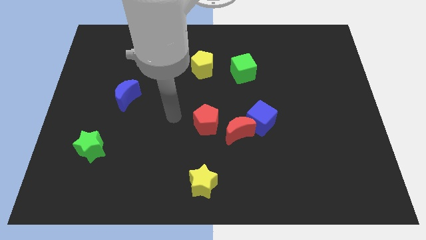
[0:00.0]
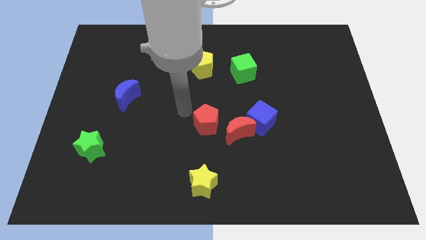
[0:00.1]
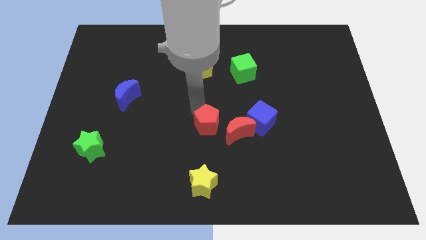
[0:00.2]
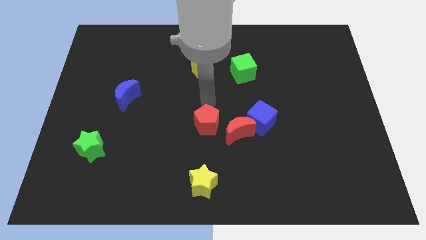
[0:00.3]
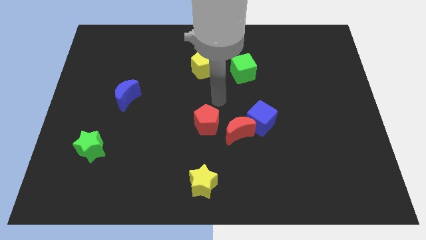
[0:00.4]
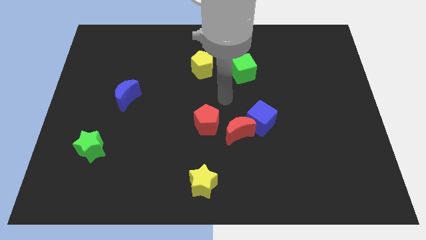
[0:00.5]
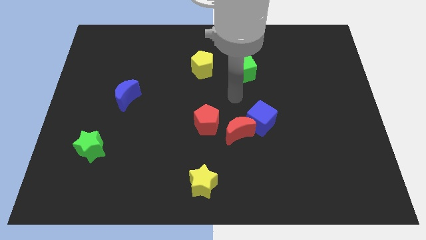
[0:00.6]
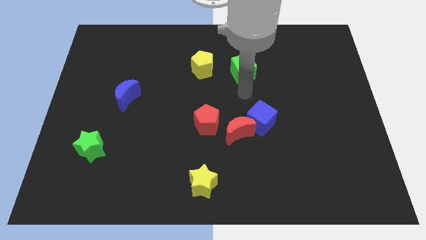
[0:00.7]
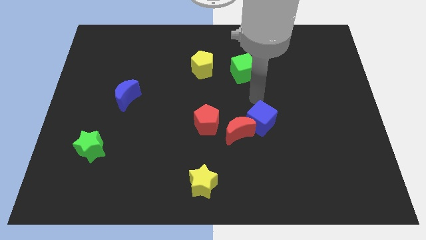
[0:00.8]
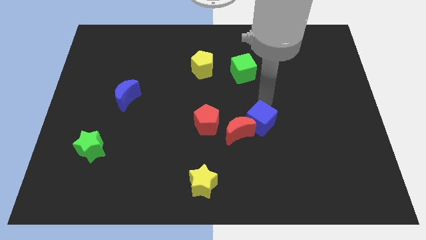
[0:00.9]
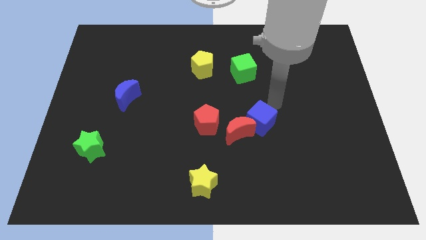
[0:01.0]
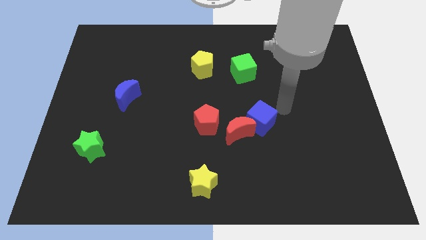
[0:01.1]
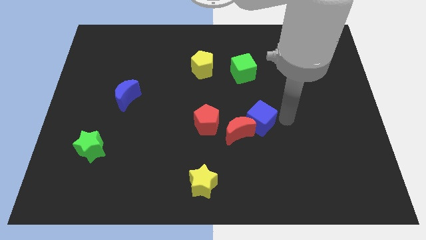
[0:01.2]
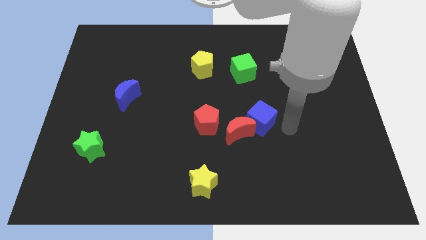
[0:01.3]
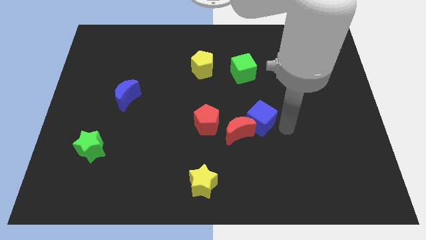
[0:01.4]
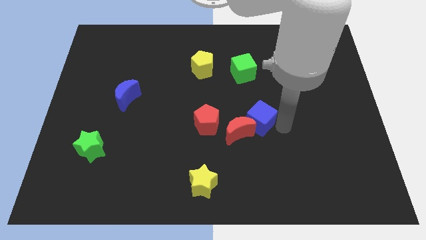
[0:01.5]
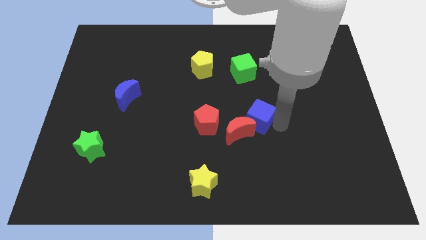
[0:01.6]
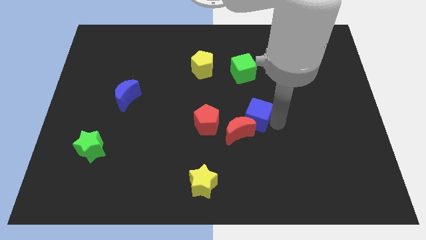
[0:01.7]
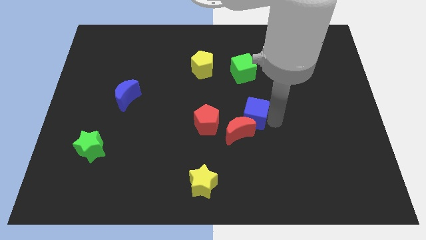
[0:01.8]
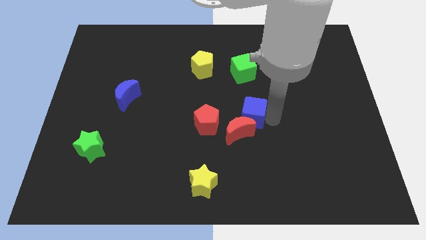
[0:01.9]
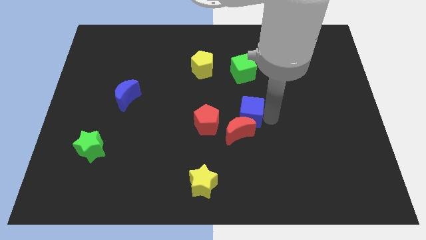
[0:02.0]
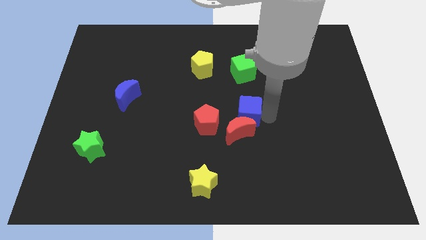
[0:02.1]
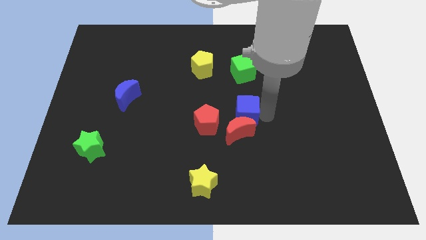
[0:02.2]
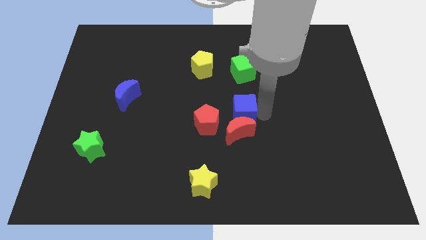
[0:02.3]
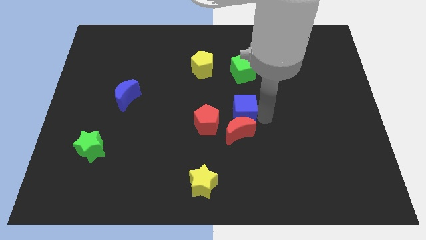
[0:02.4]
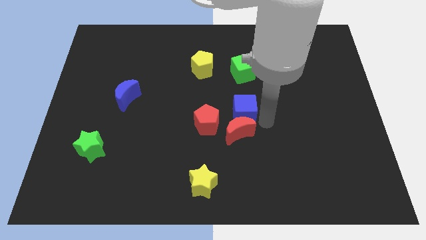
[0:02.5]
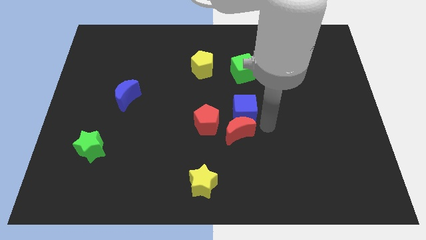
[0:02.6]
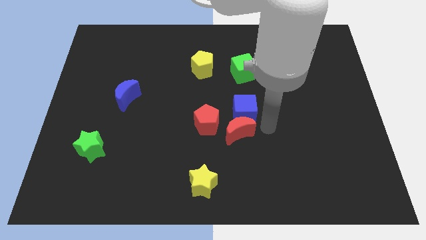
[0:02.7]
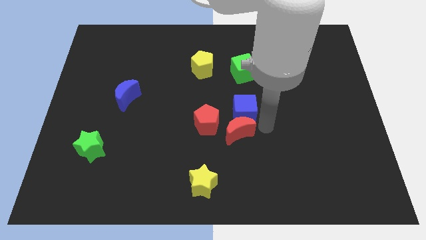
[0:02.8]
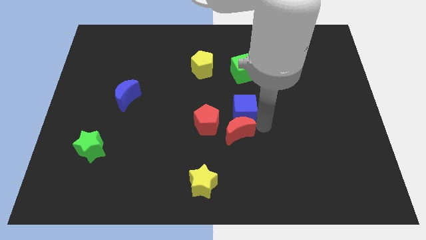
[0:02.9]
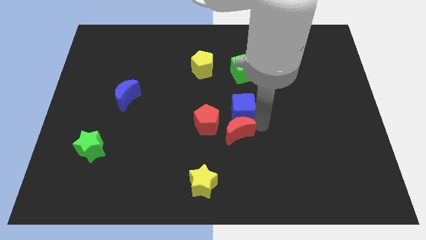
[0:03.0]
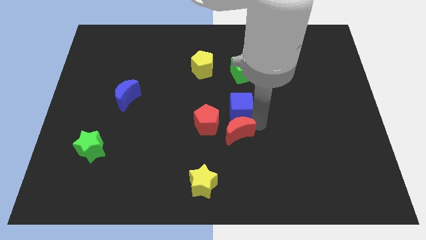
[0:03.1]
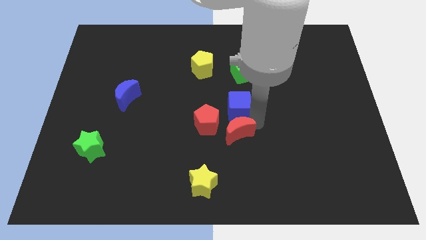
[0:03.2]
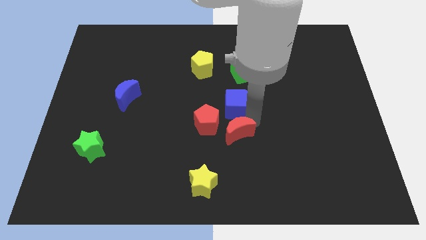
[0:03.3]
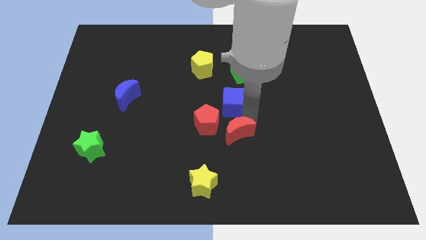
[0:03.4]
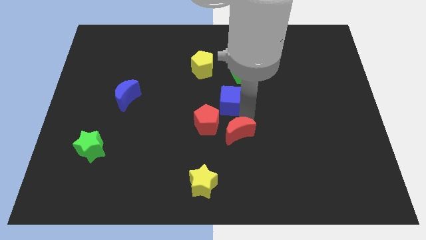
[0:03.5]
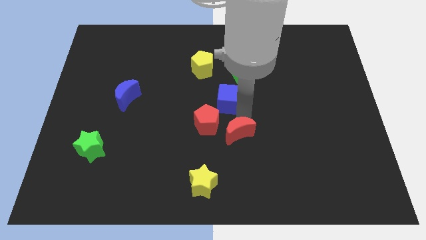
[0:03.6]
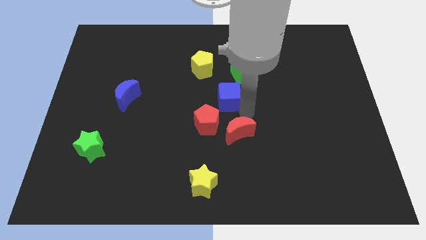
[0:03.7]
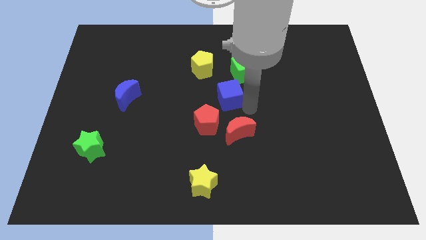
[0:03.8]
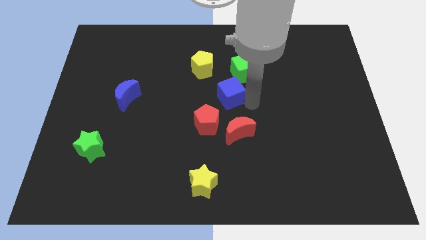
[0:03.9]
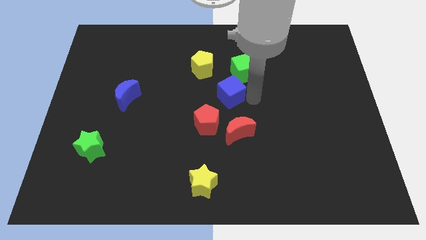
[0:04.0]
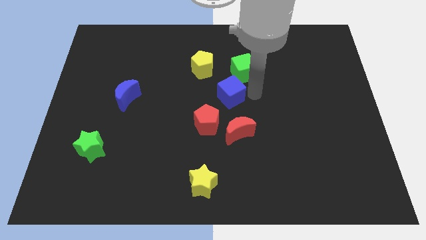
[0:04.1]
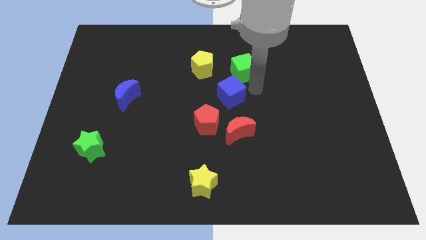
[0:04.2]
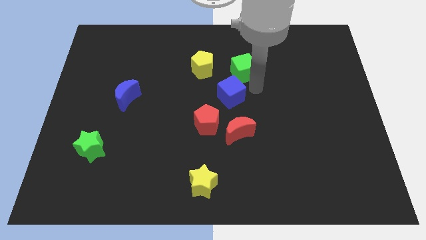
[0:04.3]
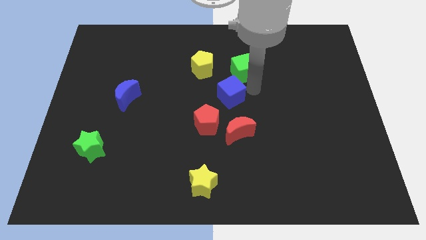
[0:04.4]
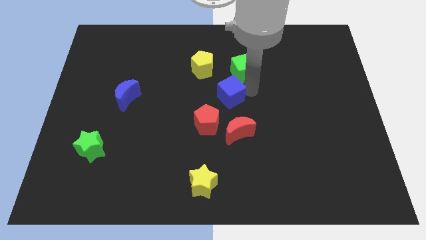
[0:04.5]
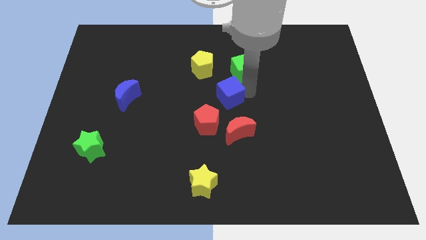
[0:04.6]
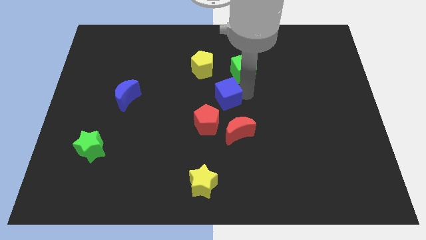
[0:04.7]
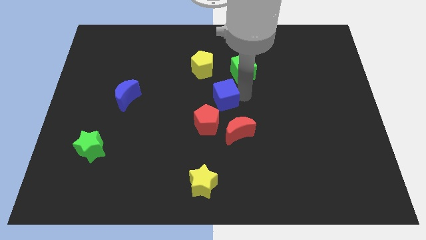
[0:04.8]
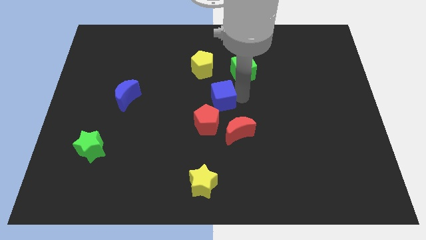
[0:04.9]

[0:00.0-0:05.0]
slightly slide the blue cube to the left

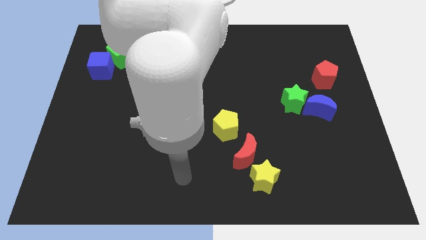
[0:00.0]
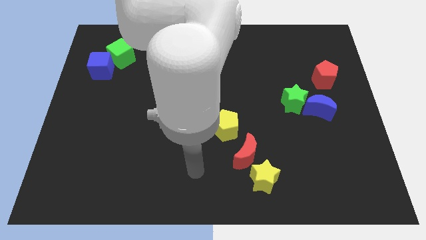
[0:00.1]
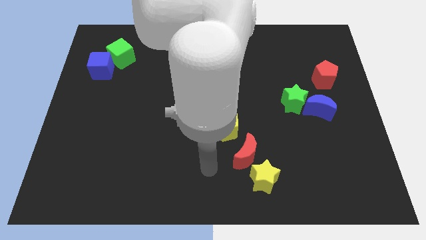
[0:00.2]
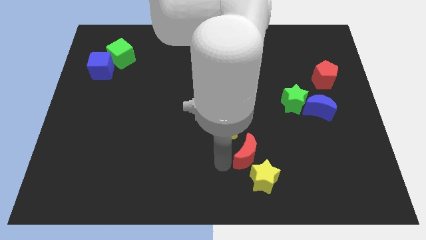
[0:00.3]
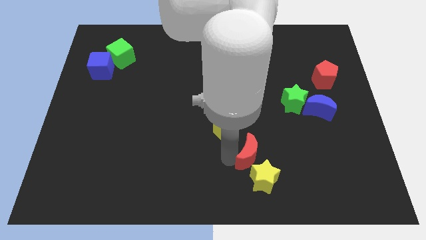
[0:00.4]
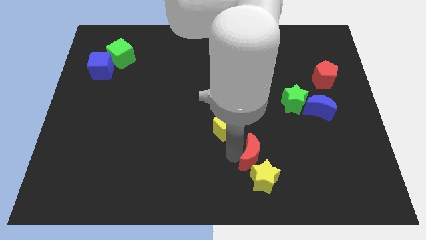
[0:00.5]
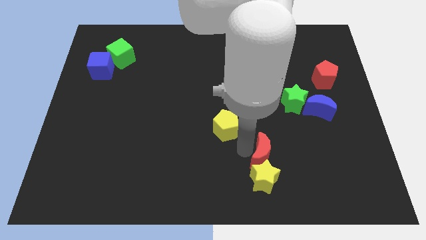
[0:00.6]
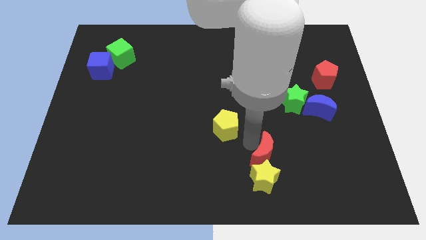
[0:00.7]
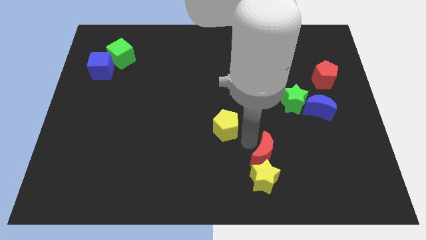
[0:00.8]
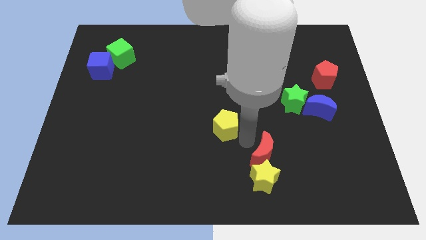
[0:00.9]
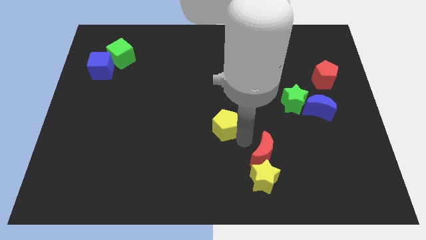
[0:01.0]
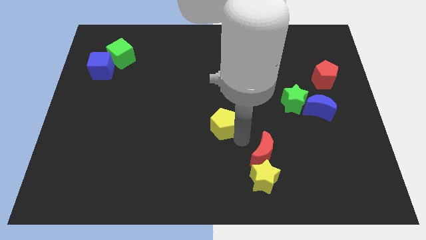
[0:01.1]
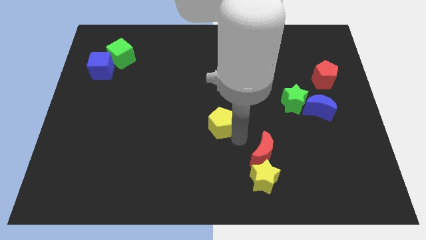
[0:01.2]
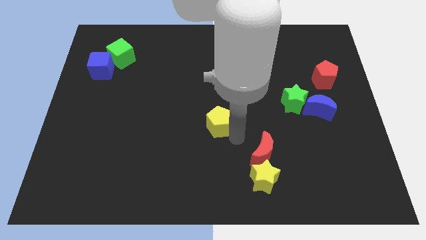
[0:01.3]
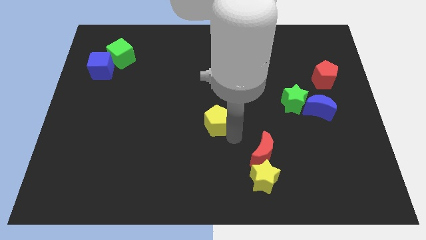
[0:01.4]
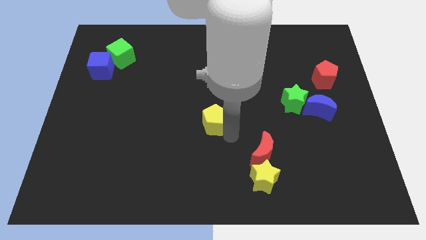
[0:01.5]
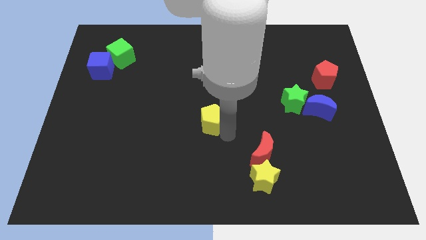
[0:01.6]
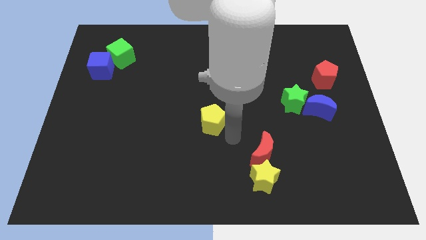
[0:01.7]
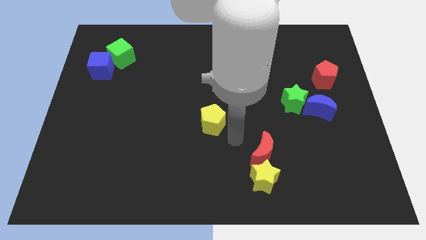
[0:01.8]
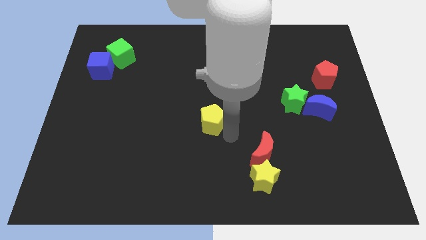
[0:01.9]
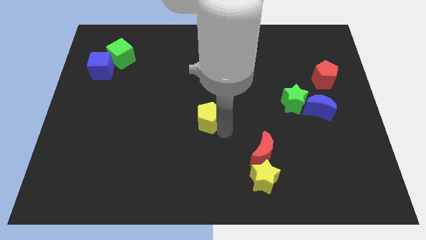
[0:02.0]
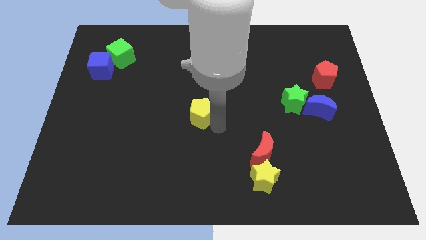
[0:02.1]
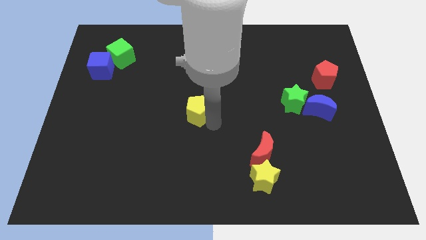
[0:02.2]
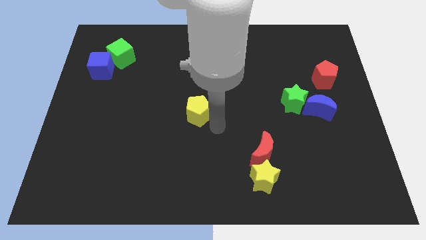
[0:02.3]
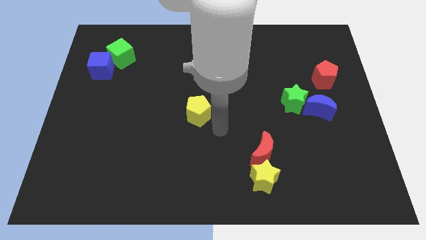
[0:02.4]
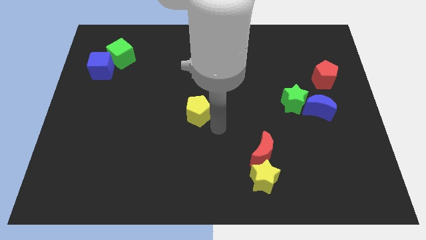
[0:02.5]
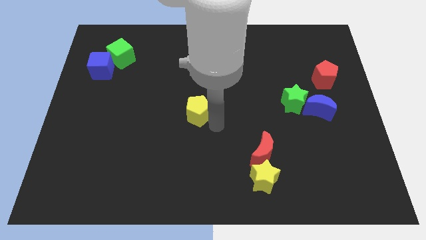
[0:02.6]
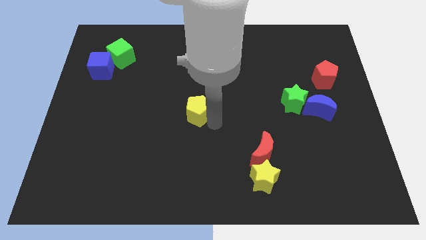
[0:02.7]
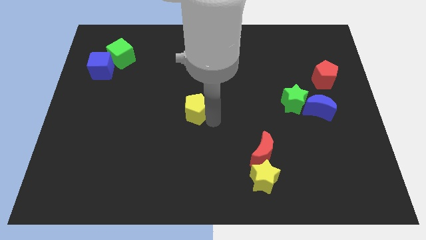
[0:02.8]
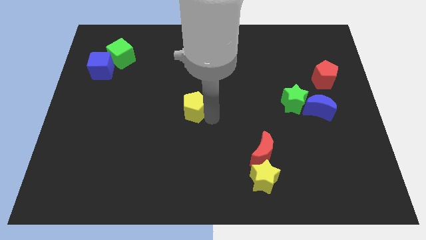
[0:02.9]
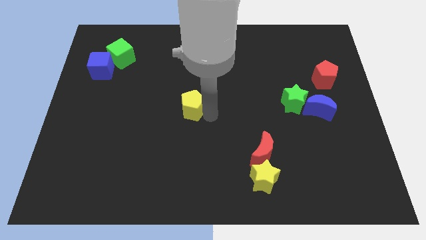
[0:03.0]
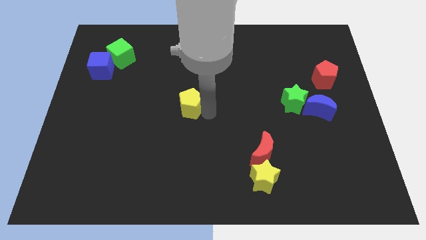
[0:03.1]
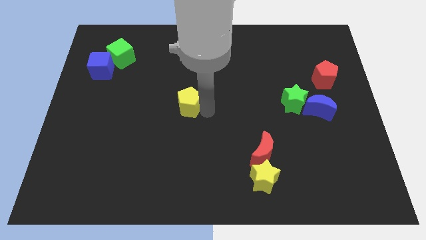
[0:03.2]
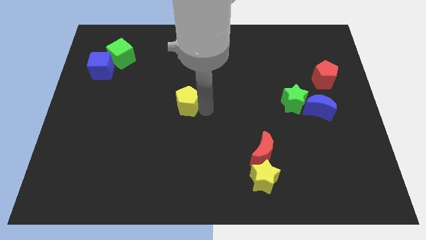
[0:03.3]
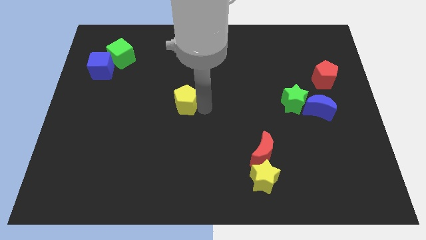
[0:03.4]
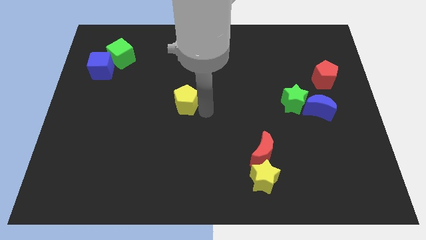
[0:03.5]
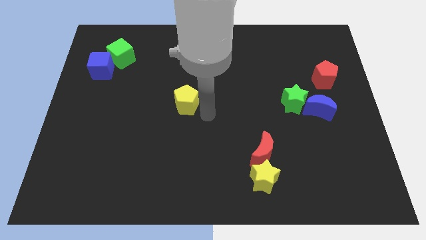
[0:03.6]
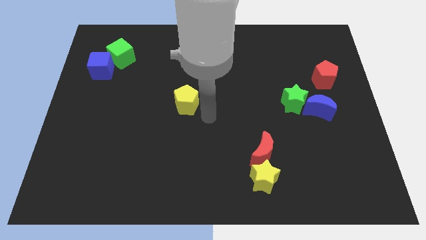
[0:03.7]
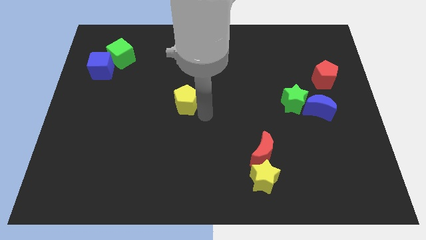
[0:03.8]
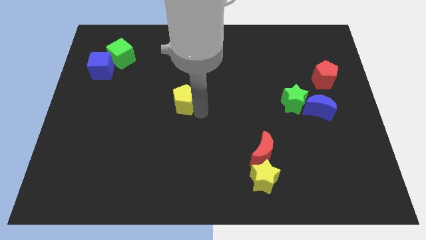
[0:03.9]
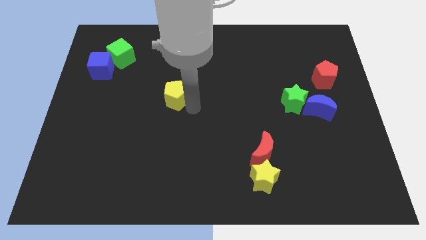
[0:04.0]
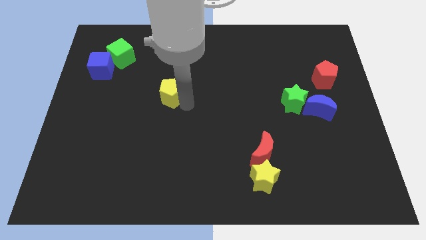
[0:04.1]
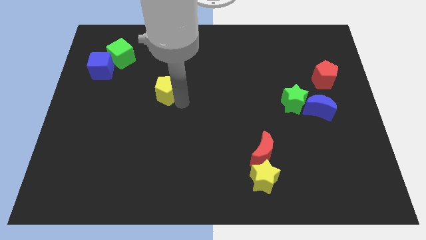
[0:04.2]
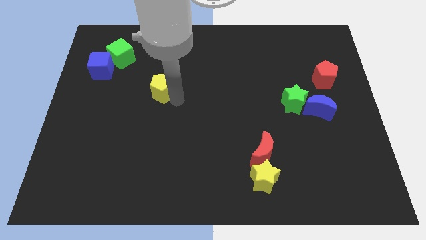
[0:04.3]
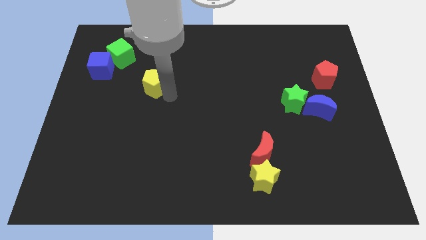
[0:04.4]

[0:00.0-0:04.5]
move the yellow pentagon diagonally up and to the left
